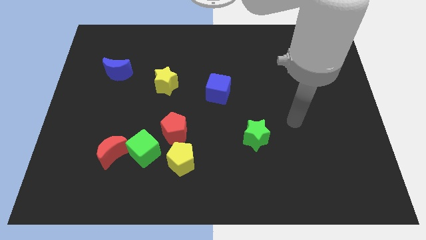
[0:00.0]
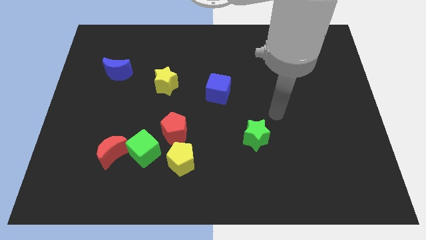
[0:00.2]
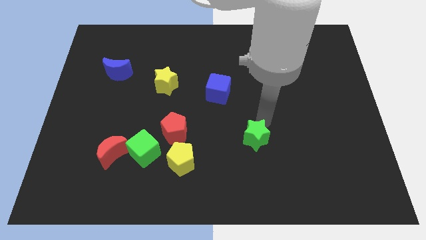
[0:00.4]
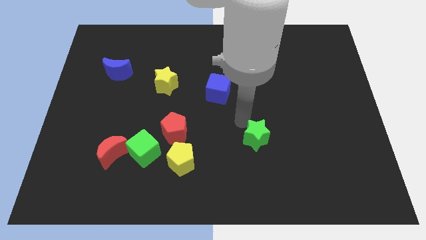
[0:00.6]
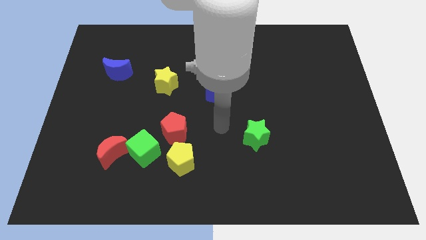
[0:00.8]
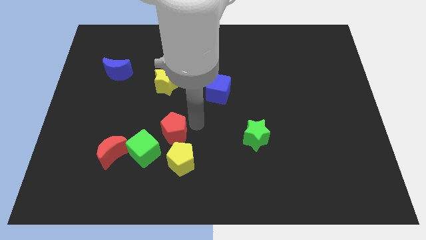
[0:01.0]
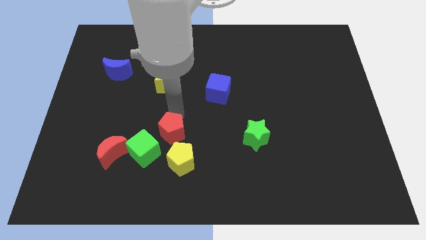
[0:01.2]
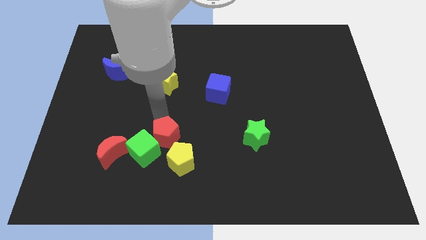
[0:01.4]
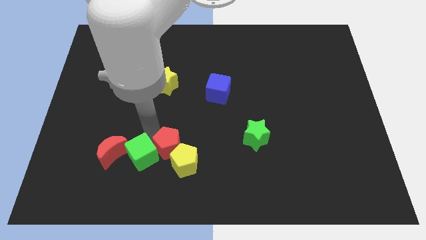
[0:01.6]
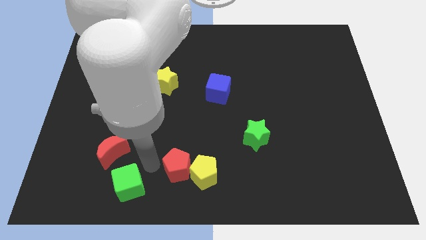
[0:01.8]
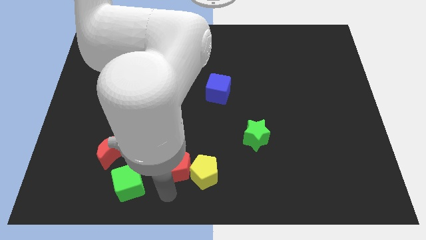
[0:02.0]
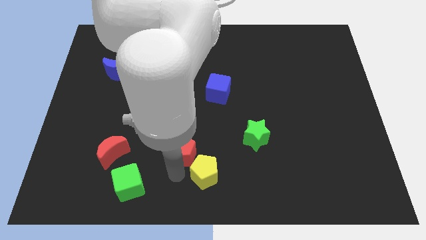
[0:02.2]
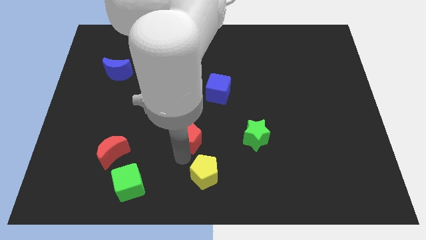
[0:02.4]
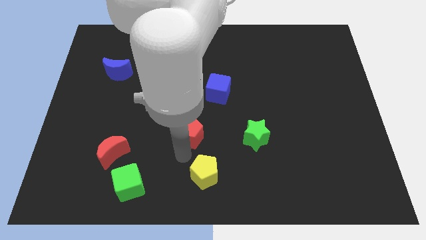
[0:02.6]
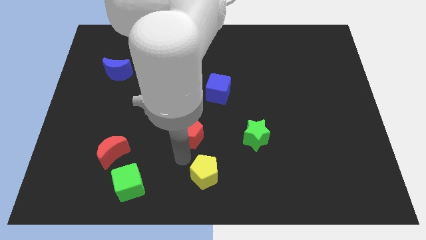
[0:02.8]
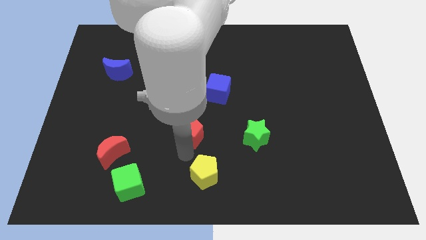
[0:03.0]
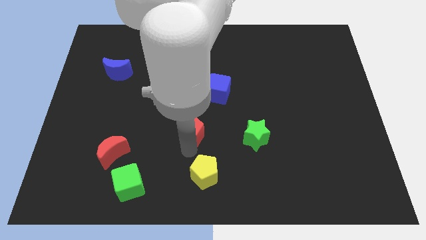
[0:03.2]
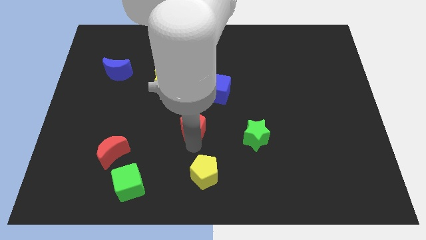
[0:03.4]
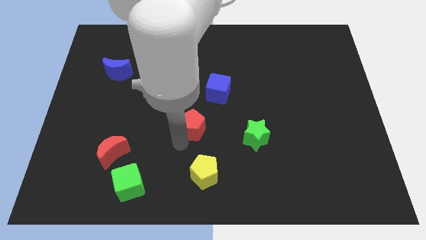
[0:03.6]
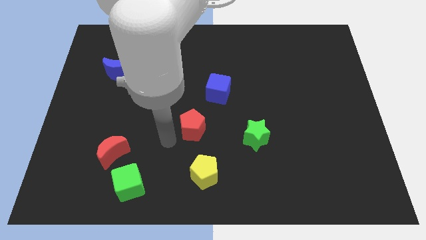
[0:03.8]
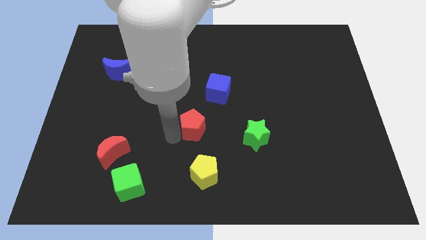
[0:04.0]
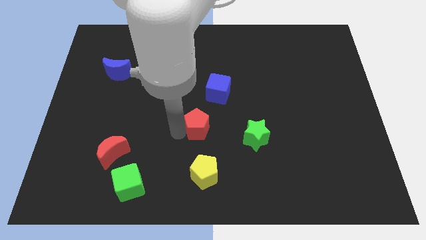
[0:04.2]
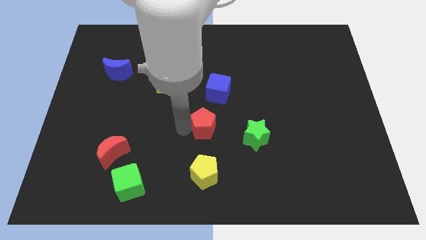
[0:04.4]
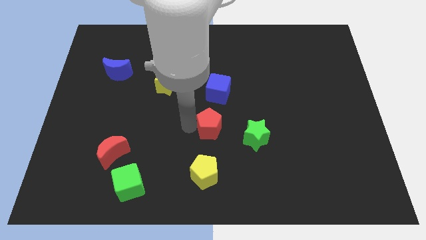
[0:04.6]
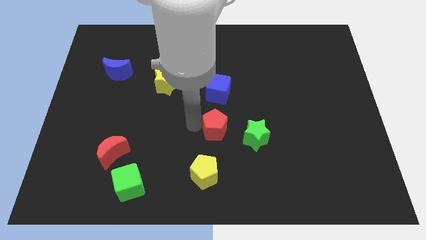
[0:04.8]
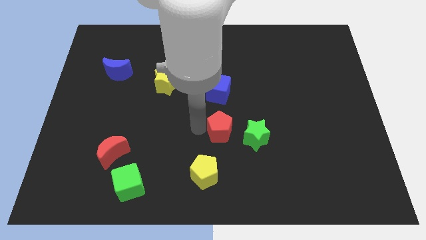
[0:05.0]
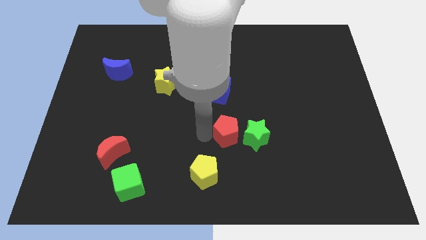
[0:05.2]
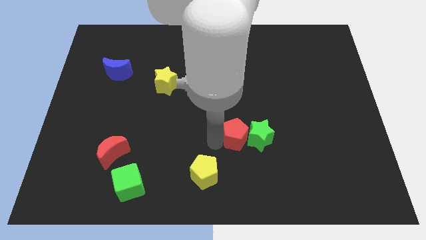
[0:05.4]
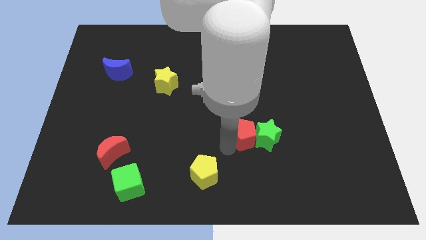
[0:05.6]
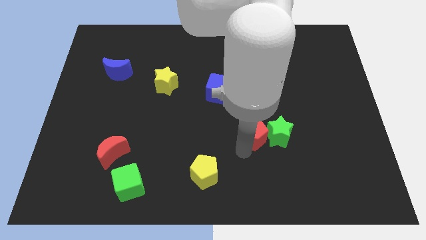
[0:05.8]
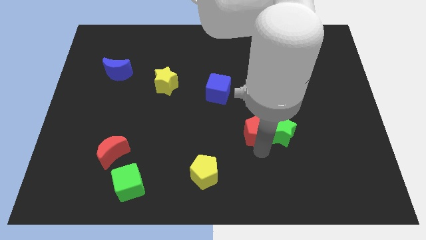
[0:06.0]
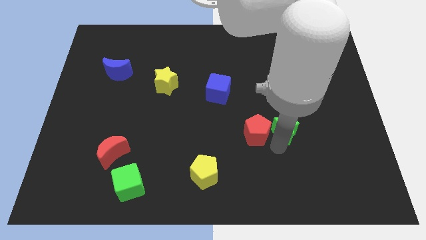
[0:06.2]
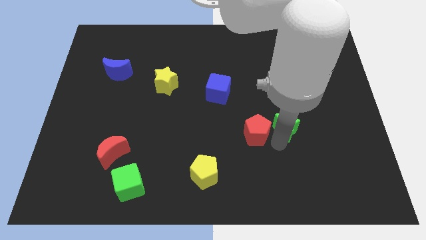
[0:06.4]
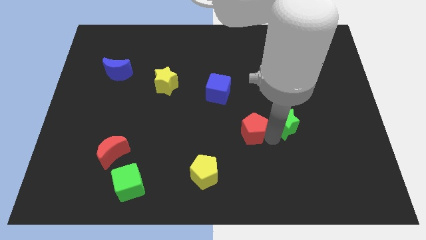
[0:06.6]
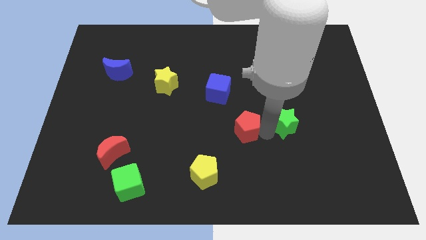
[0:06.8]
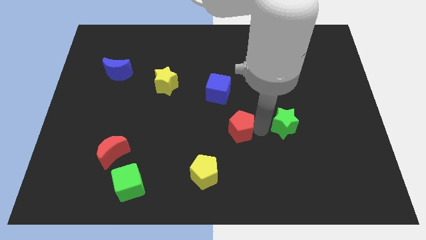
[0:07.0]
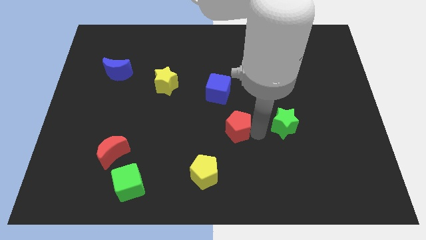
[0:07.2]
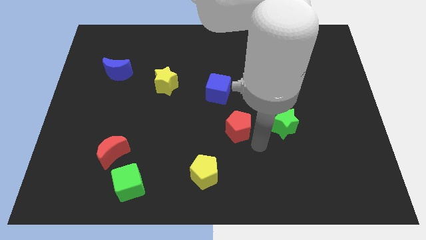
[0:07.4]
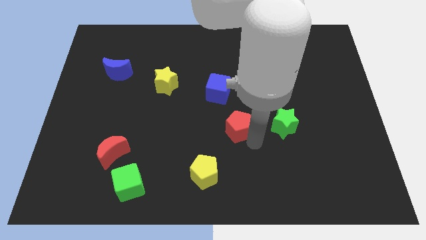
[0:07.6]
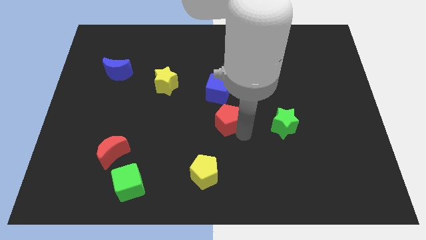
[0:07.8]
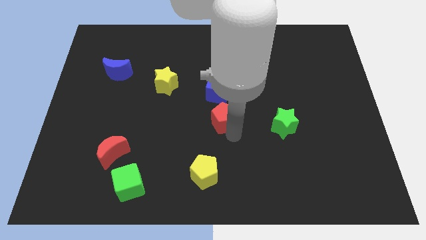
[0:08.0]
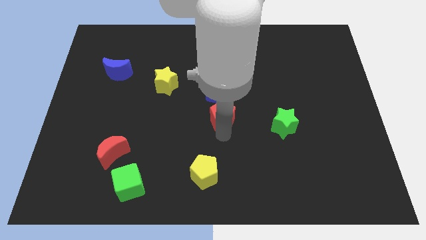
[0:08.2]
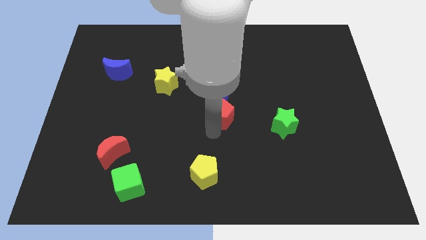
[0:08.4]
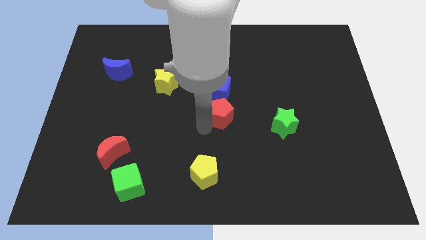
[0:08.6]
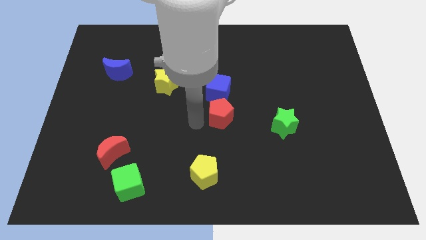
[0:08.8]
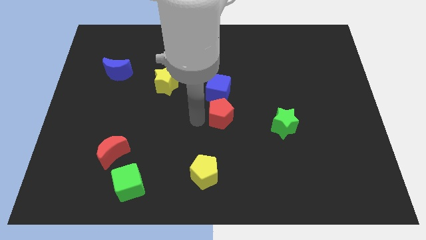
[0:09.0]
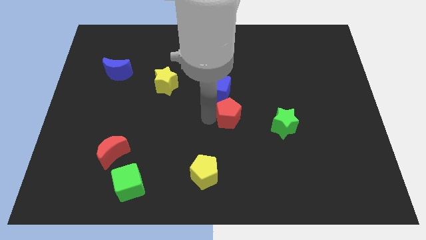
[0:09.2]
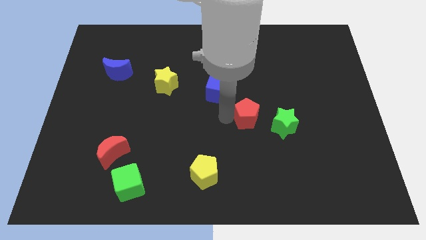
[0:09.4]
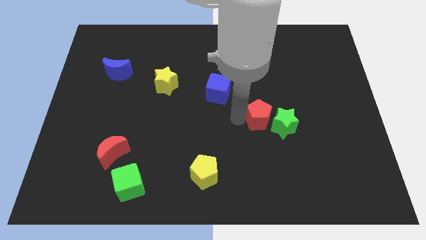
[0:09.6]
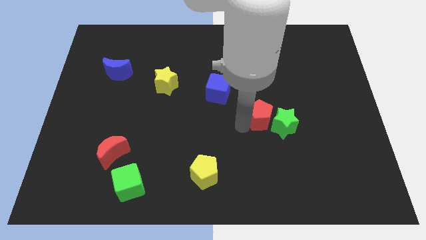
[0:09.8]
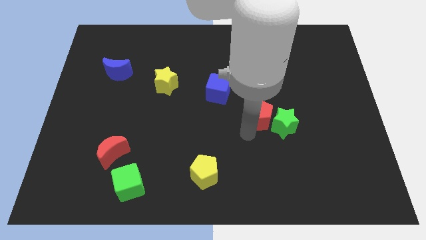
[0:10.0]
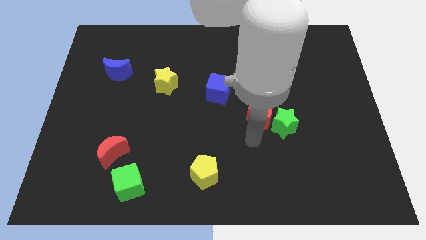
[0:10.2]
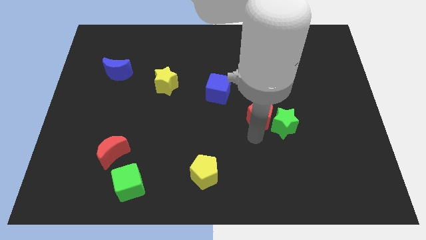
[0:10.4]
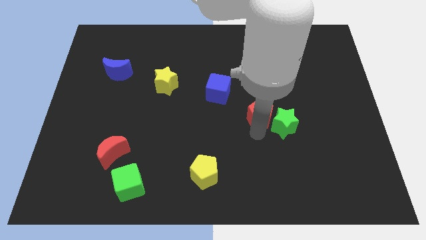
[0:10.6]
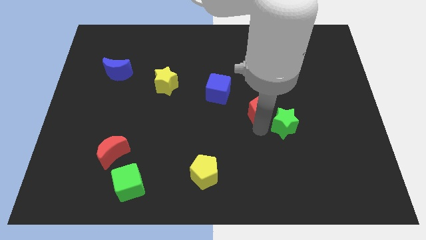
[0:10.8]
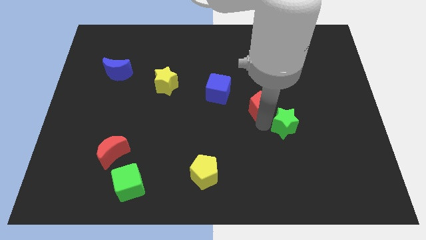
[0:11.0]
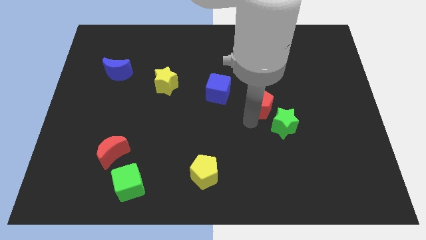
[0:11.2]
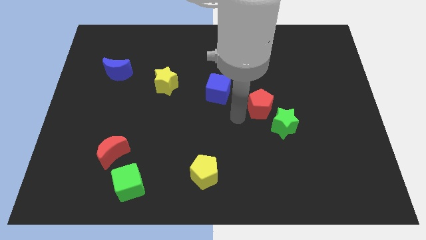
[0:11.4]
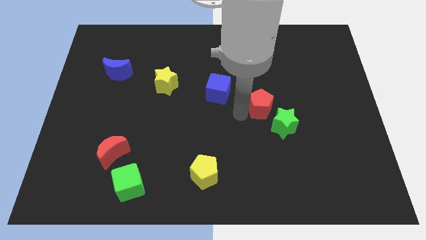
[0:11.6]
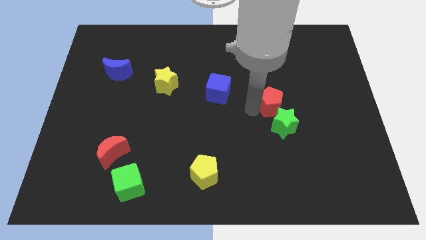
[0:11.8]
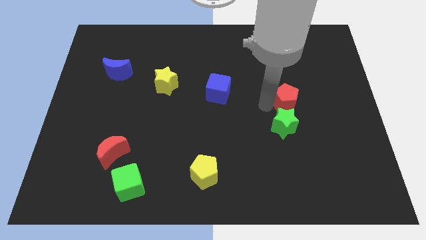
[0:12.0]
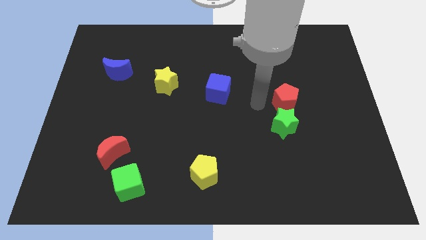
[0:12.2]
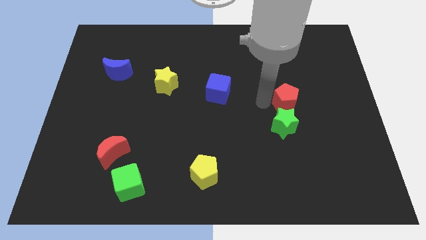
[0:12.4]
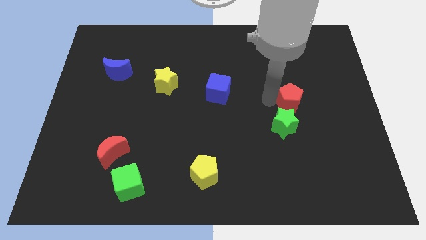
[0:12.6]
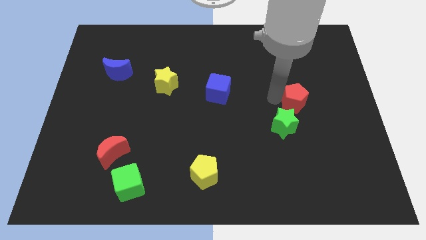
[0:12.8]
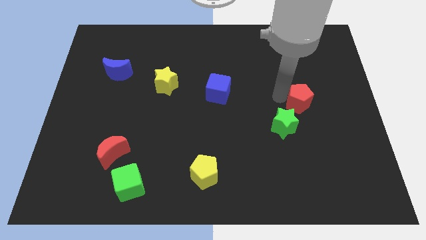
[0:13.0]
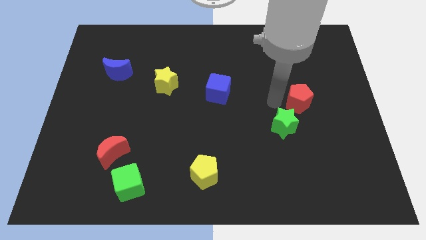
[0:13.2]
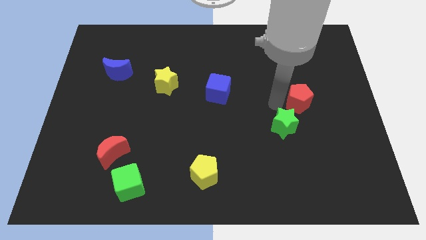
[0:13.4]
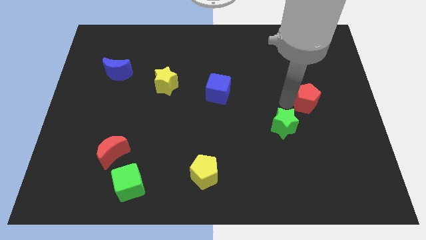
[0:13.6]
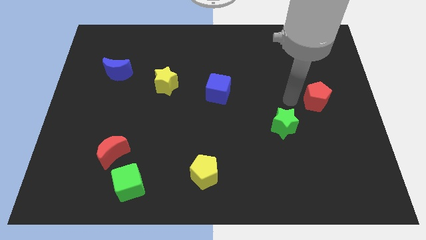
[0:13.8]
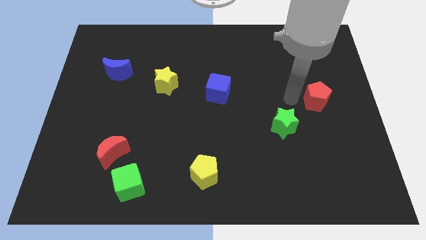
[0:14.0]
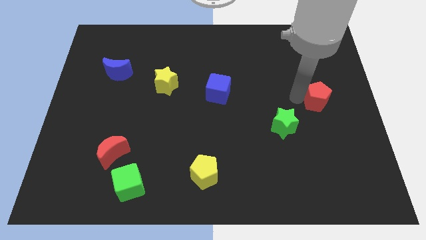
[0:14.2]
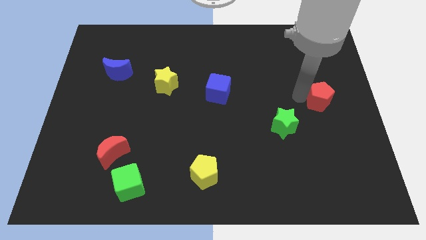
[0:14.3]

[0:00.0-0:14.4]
put the red pentagon to the right side
